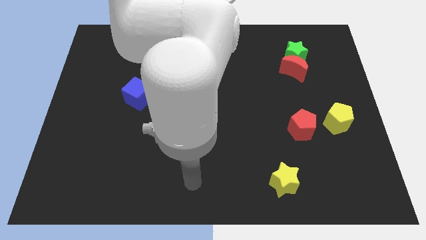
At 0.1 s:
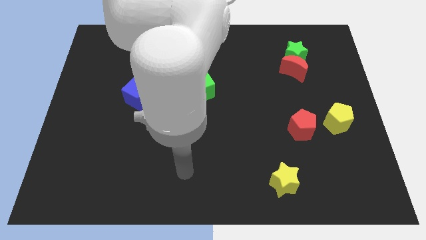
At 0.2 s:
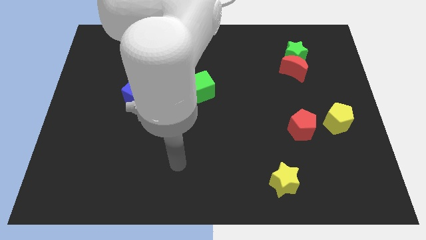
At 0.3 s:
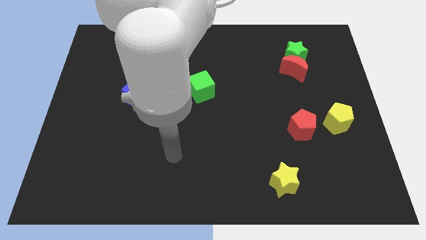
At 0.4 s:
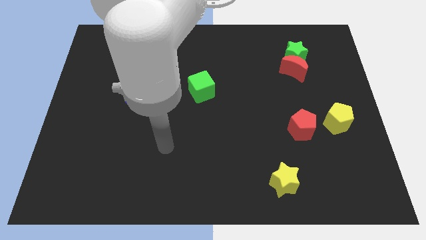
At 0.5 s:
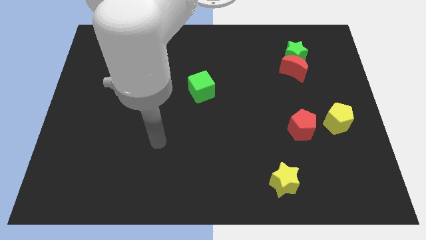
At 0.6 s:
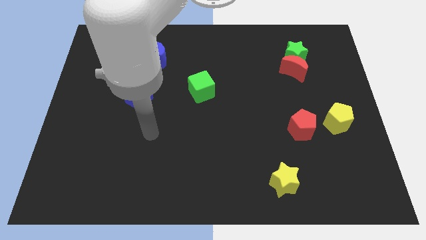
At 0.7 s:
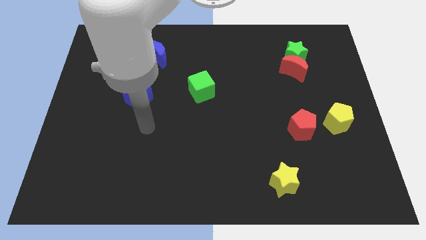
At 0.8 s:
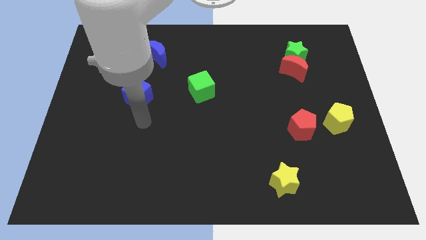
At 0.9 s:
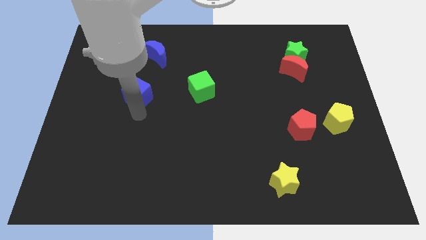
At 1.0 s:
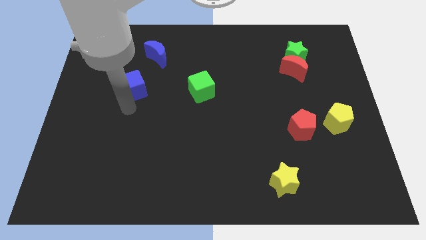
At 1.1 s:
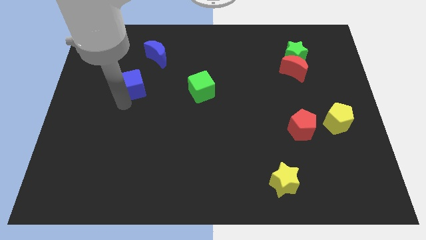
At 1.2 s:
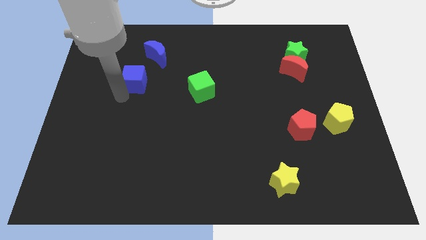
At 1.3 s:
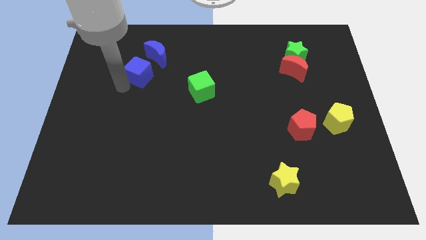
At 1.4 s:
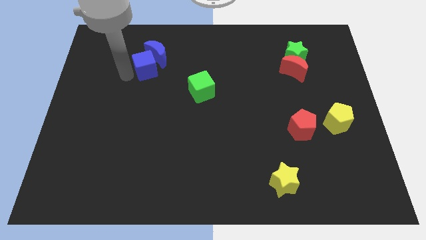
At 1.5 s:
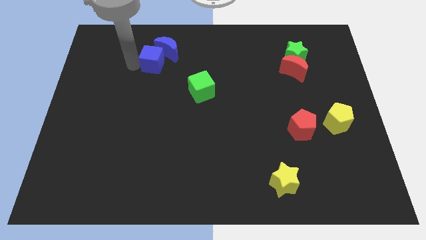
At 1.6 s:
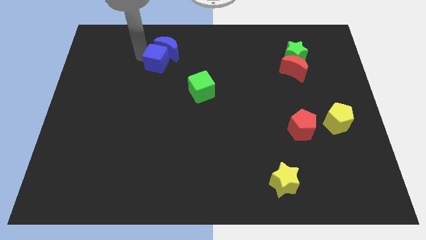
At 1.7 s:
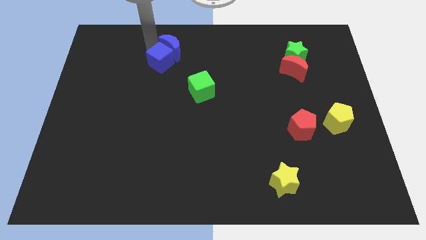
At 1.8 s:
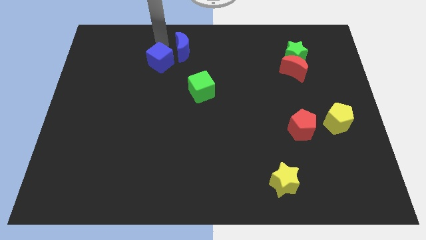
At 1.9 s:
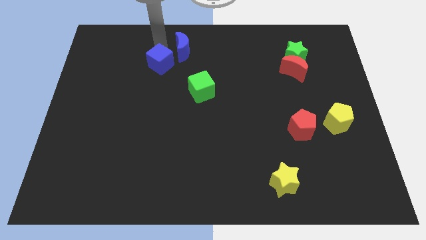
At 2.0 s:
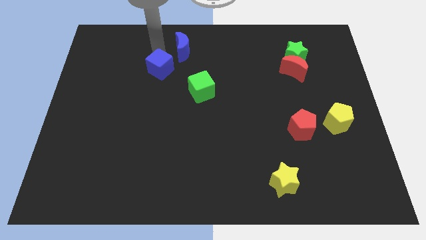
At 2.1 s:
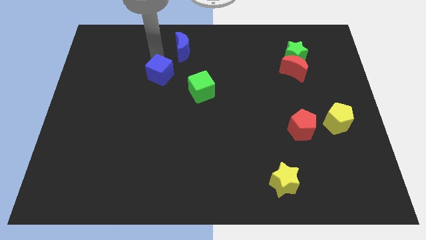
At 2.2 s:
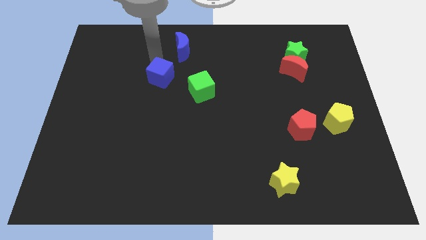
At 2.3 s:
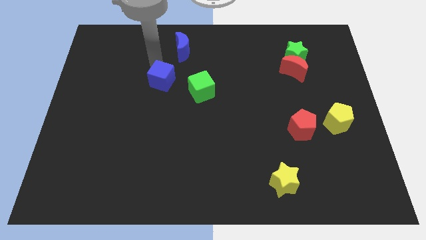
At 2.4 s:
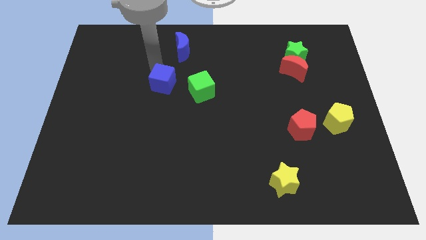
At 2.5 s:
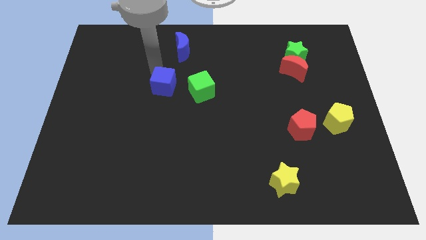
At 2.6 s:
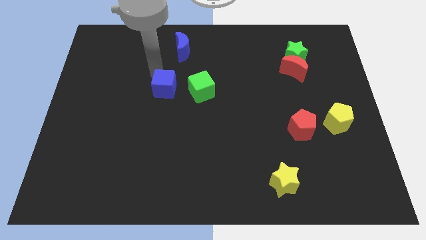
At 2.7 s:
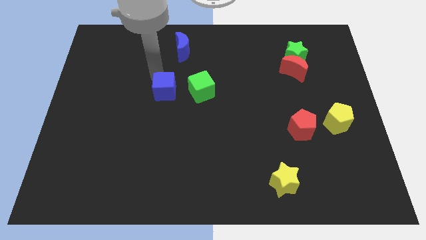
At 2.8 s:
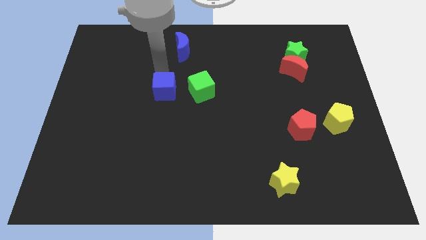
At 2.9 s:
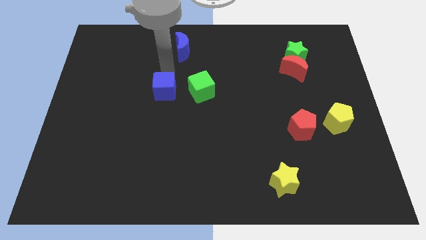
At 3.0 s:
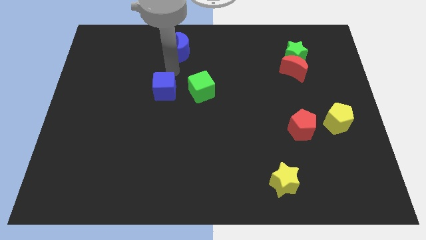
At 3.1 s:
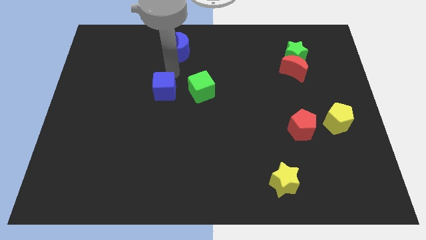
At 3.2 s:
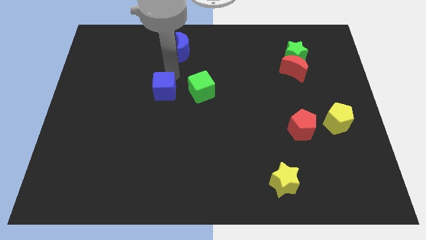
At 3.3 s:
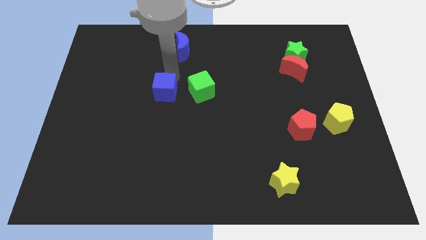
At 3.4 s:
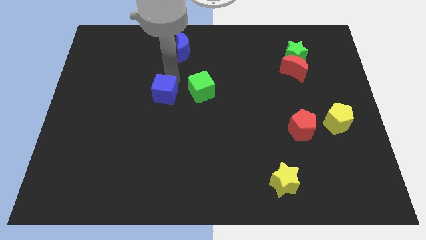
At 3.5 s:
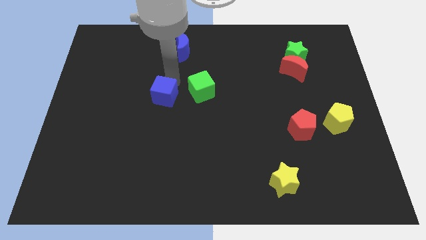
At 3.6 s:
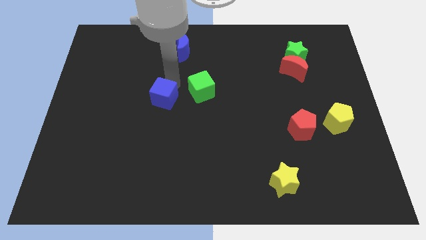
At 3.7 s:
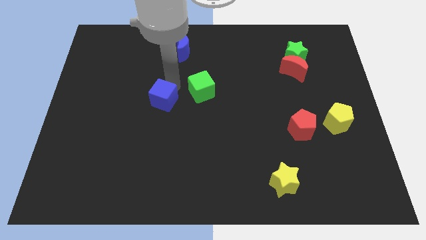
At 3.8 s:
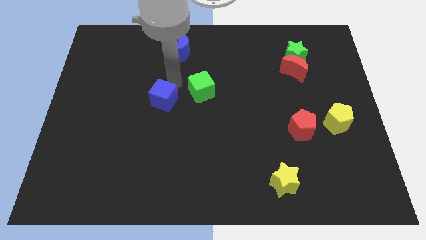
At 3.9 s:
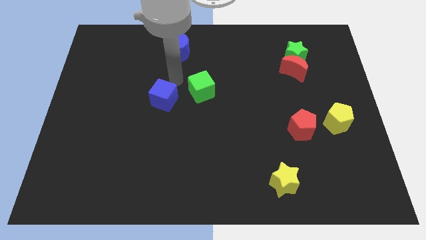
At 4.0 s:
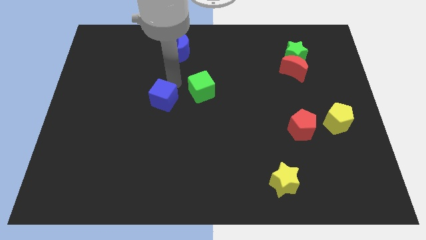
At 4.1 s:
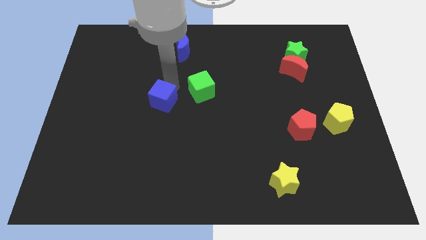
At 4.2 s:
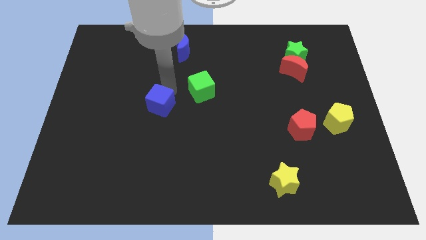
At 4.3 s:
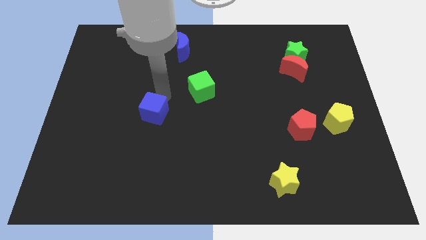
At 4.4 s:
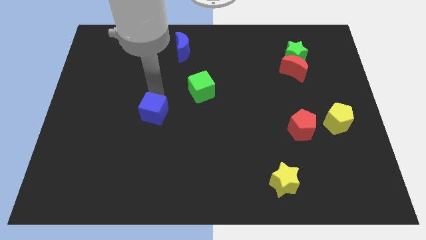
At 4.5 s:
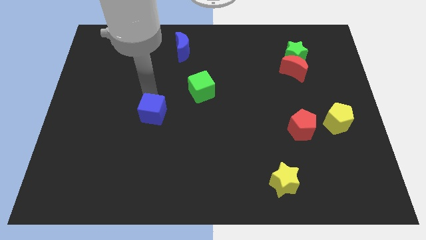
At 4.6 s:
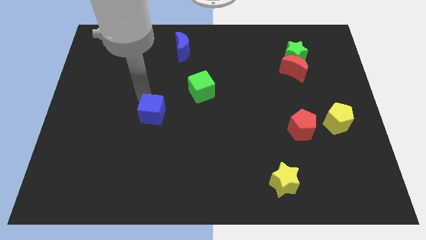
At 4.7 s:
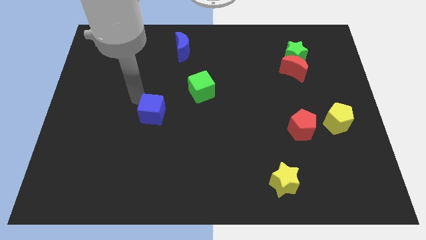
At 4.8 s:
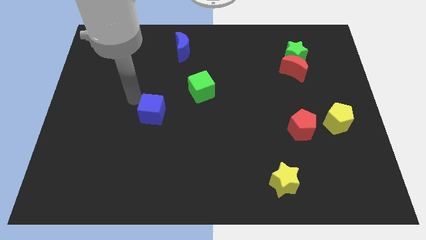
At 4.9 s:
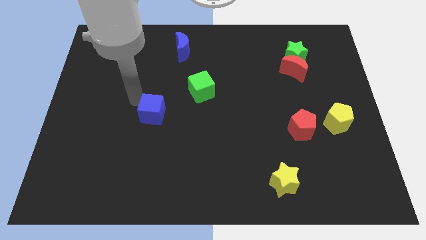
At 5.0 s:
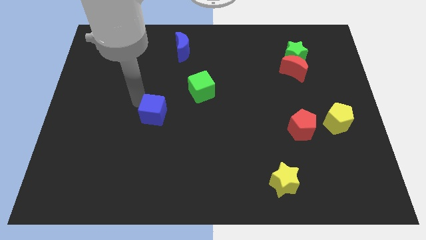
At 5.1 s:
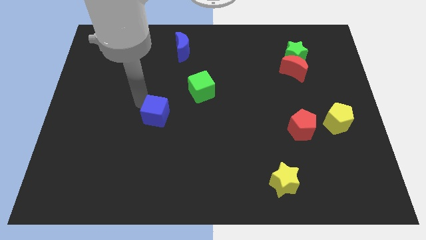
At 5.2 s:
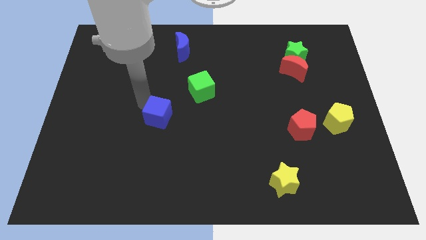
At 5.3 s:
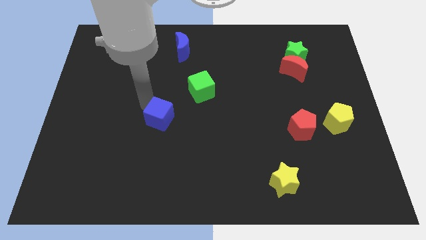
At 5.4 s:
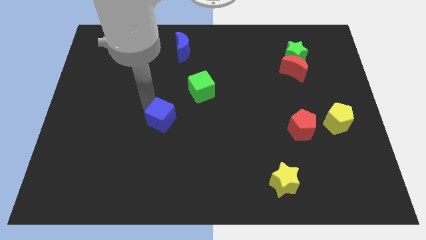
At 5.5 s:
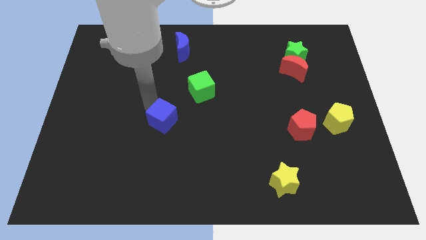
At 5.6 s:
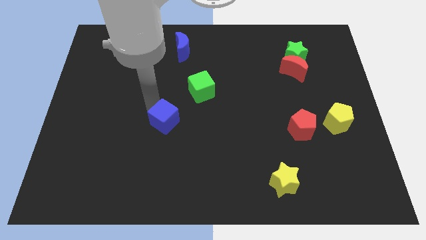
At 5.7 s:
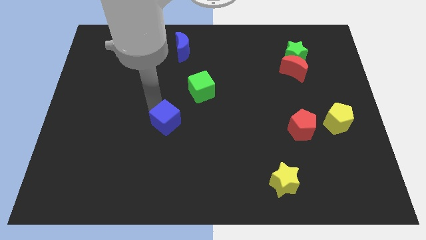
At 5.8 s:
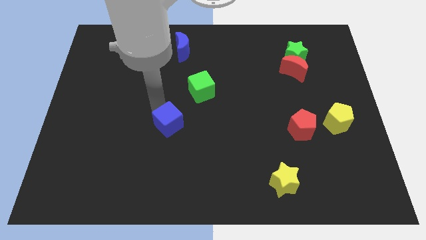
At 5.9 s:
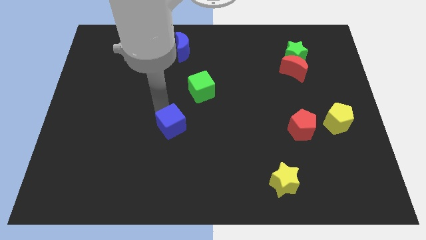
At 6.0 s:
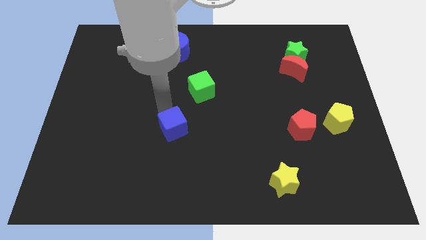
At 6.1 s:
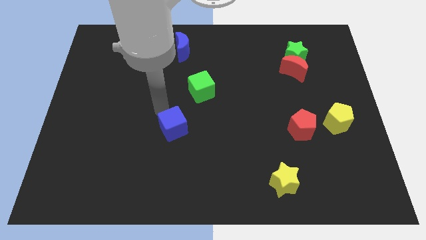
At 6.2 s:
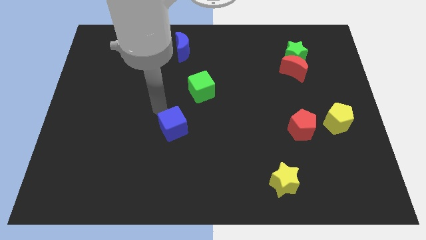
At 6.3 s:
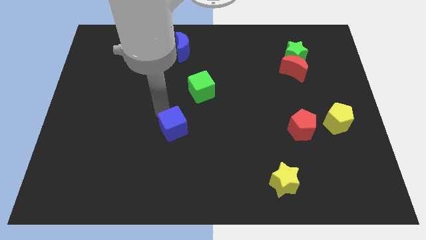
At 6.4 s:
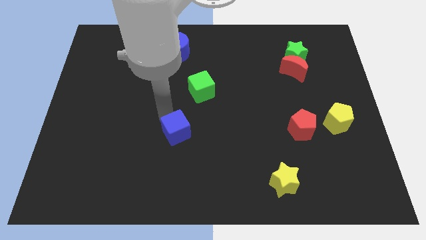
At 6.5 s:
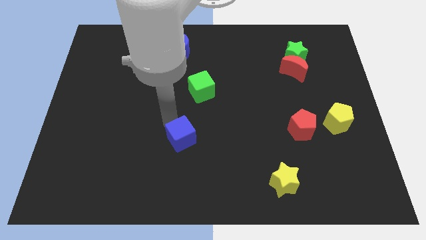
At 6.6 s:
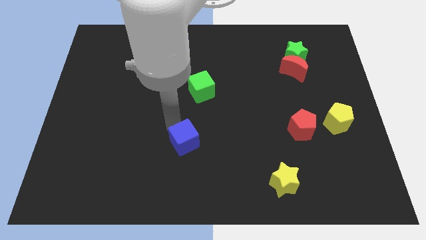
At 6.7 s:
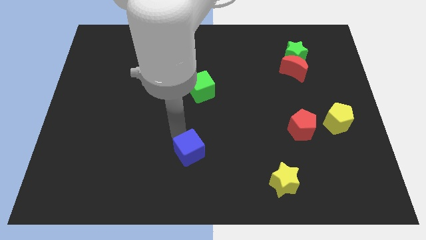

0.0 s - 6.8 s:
move the blue cube downwards and right diagonally

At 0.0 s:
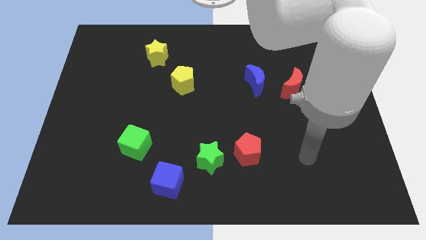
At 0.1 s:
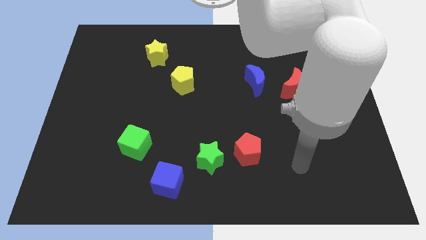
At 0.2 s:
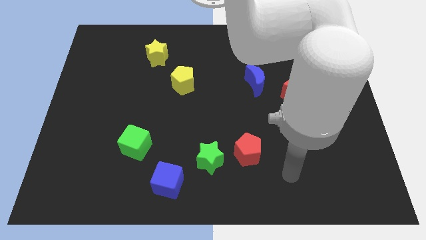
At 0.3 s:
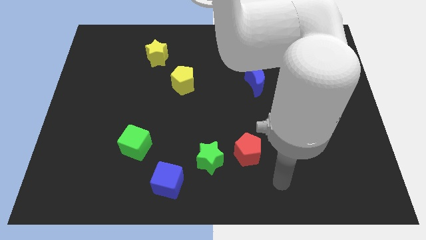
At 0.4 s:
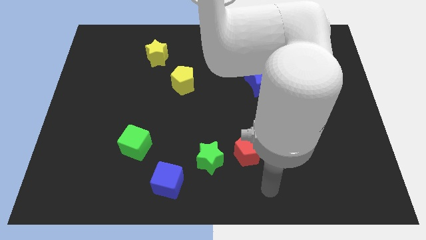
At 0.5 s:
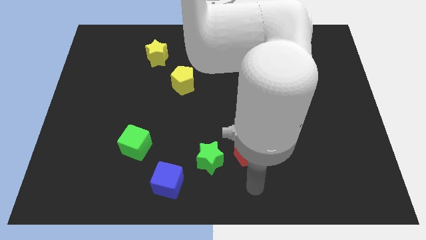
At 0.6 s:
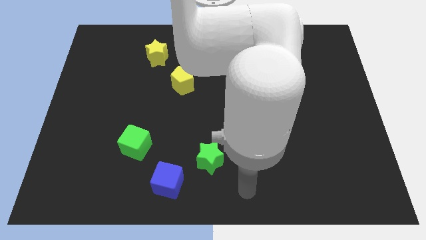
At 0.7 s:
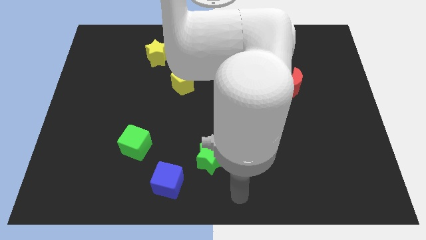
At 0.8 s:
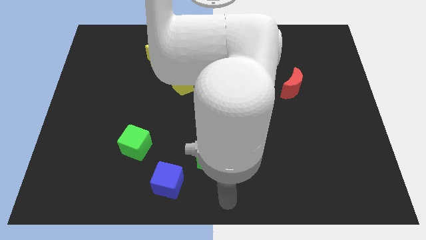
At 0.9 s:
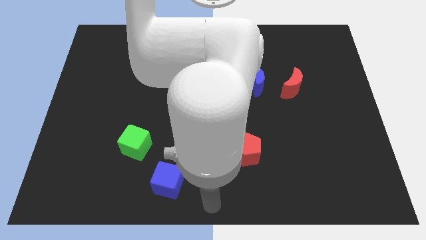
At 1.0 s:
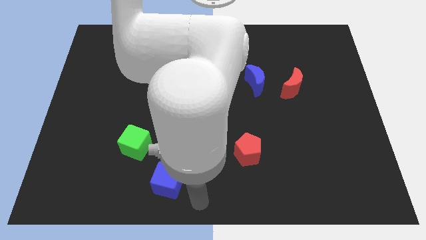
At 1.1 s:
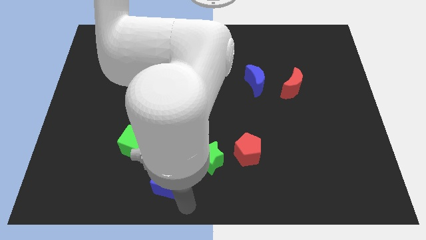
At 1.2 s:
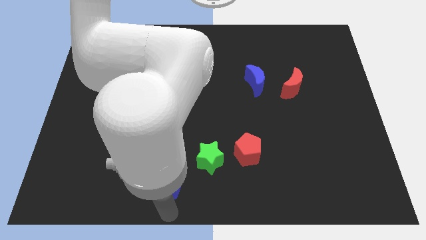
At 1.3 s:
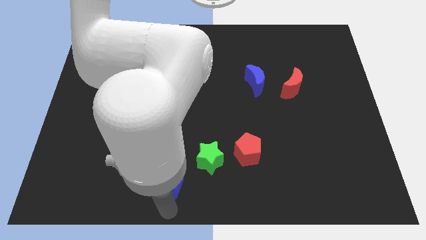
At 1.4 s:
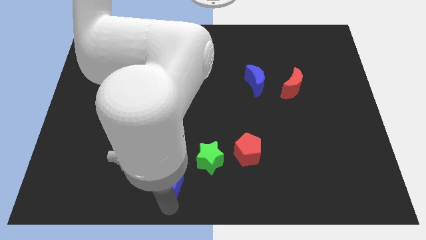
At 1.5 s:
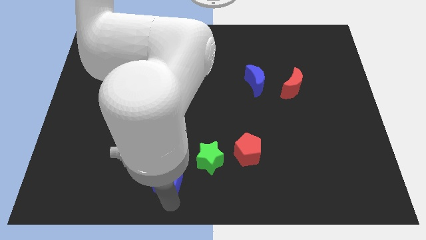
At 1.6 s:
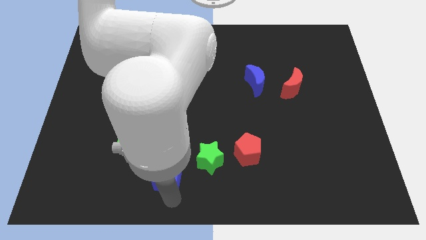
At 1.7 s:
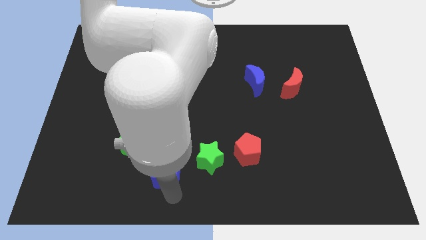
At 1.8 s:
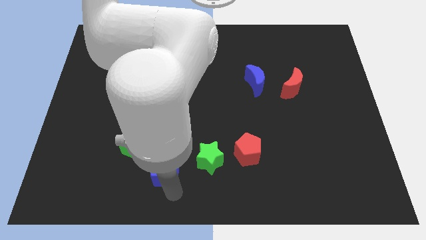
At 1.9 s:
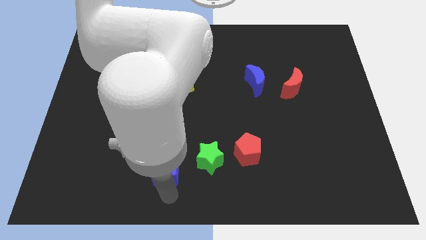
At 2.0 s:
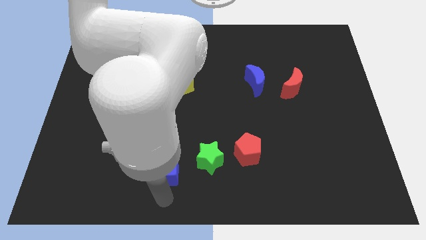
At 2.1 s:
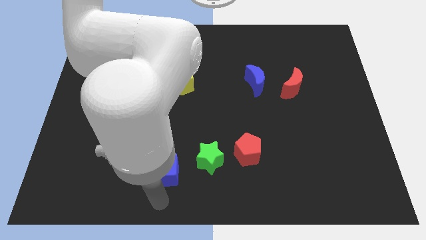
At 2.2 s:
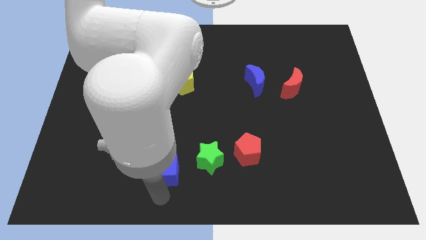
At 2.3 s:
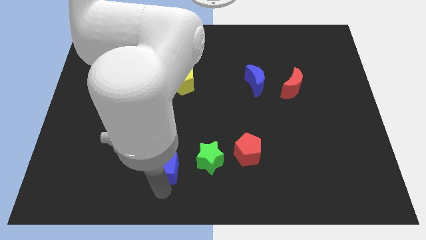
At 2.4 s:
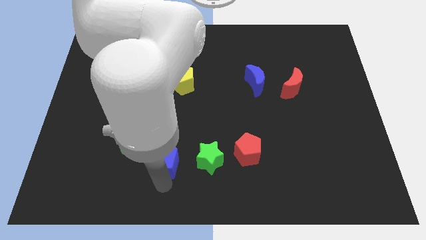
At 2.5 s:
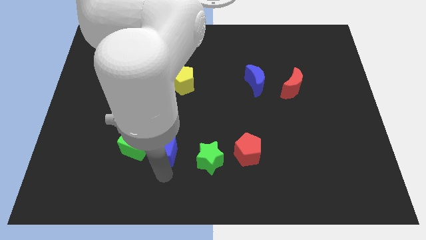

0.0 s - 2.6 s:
slide the blue cube upwards a little bit
